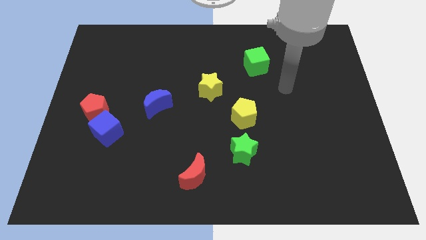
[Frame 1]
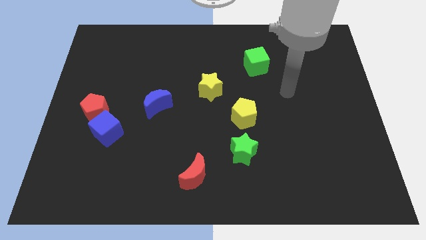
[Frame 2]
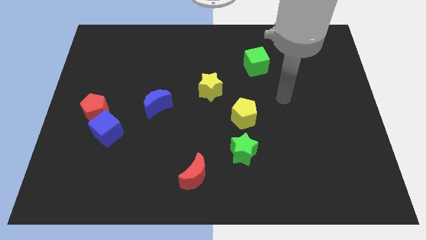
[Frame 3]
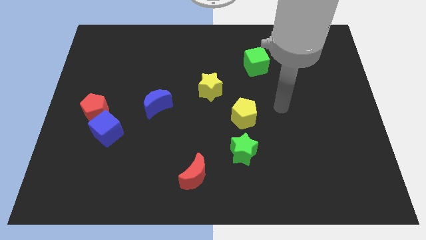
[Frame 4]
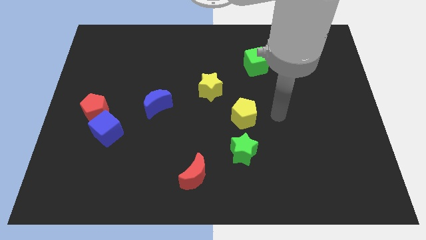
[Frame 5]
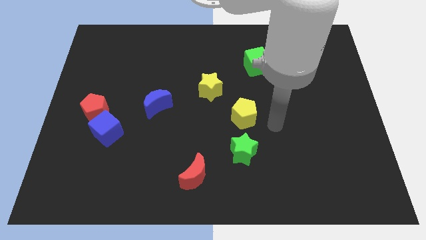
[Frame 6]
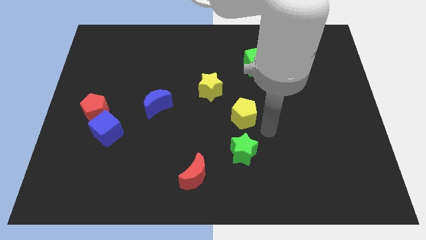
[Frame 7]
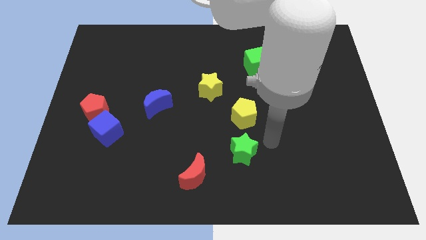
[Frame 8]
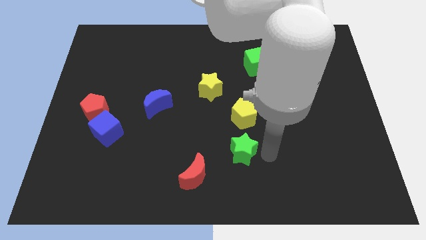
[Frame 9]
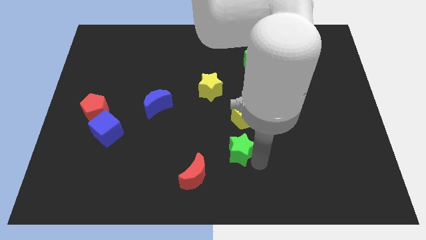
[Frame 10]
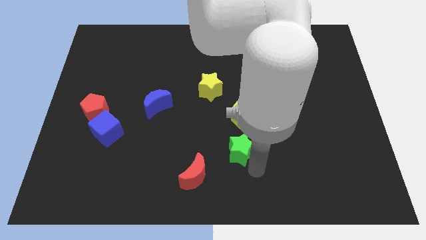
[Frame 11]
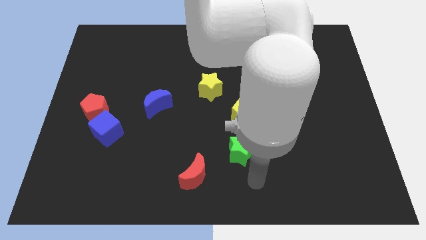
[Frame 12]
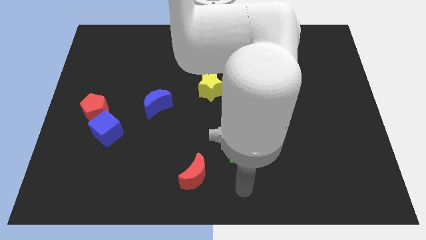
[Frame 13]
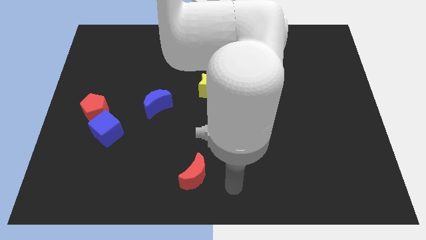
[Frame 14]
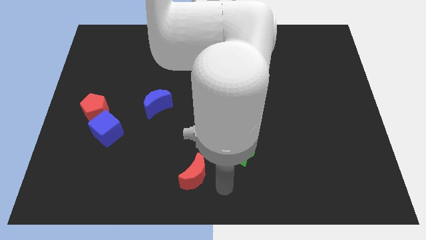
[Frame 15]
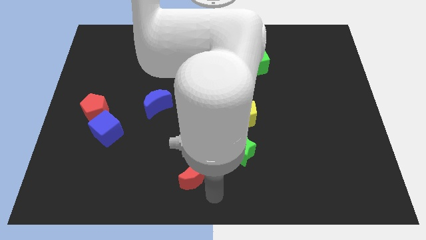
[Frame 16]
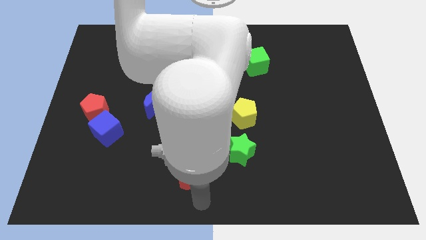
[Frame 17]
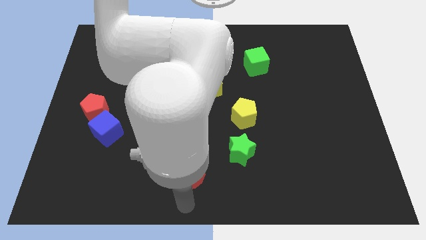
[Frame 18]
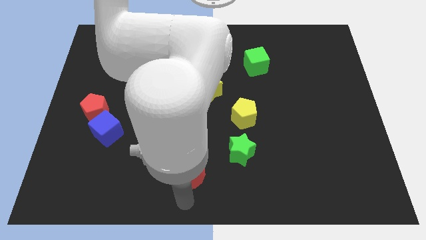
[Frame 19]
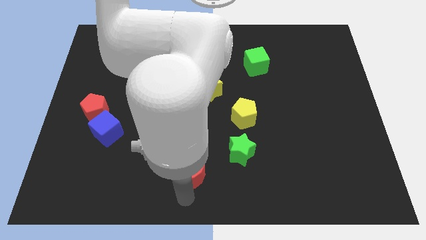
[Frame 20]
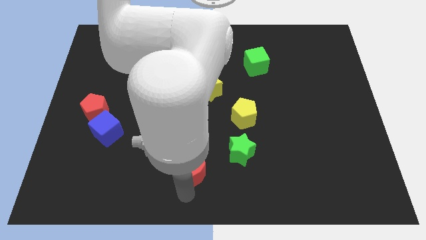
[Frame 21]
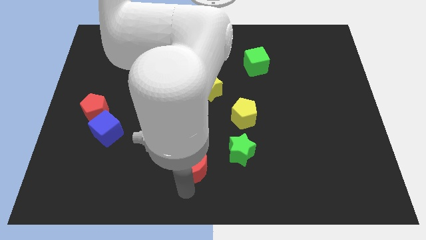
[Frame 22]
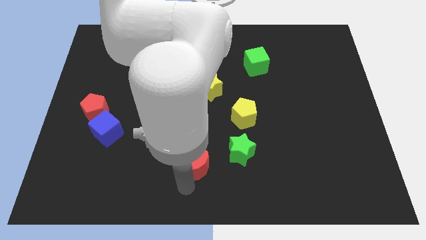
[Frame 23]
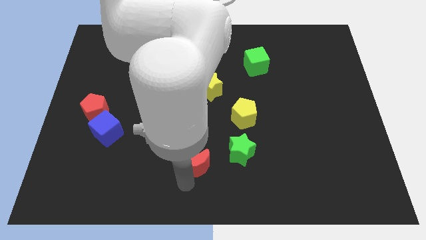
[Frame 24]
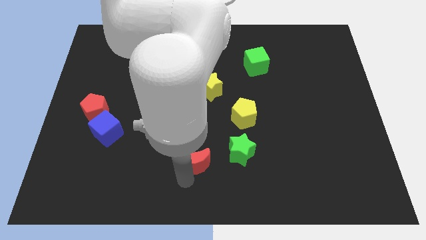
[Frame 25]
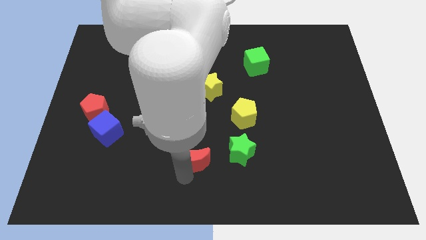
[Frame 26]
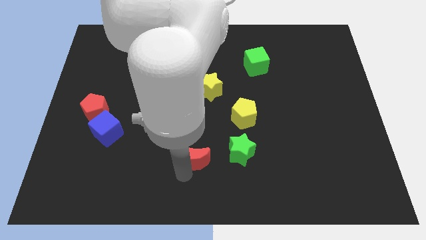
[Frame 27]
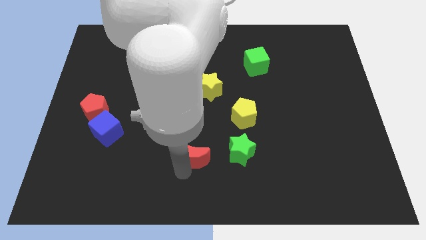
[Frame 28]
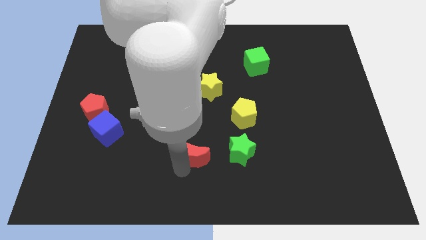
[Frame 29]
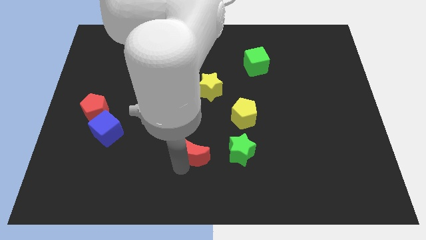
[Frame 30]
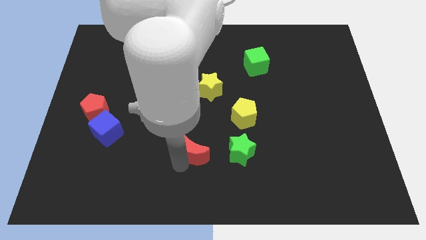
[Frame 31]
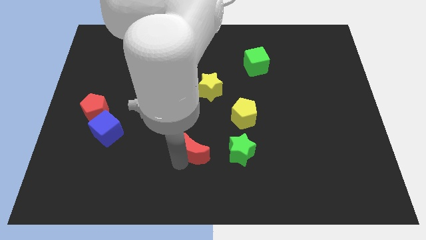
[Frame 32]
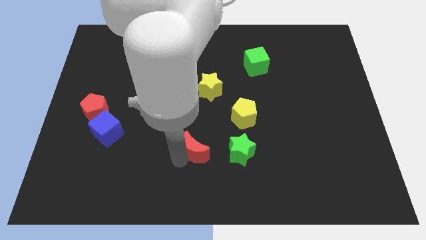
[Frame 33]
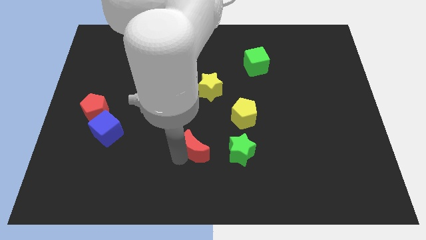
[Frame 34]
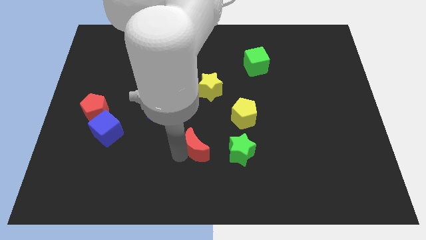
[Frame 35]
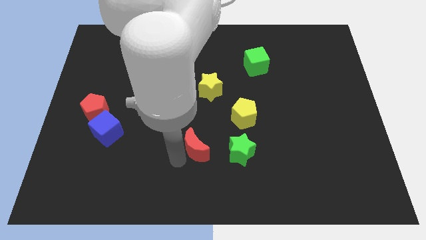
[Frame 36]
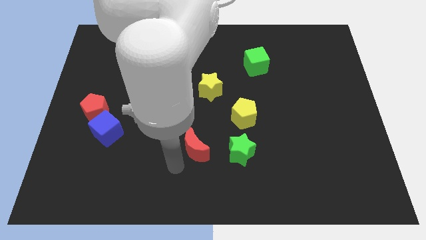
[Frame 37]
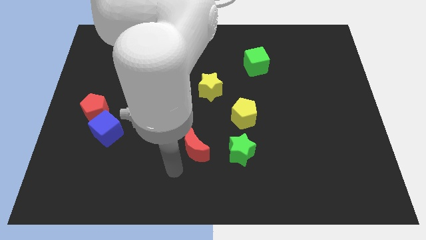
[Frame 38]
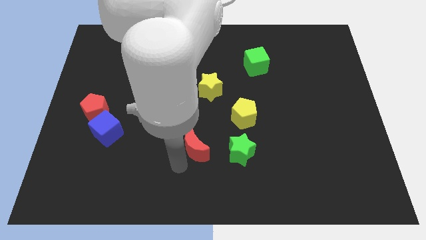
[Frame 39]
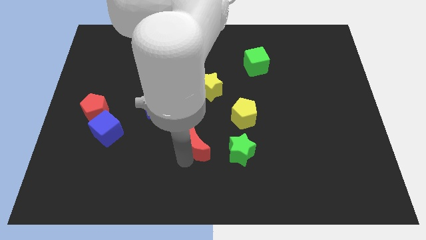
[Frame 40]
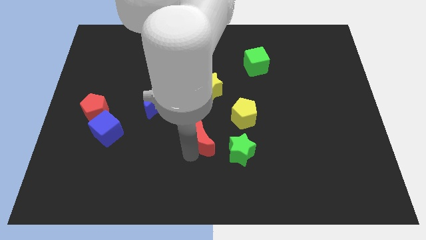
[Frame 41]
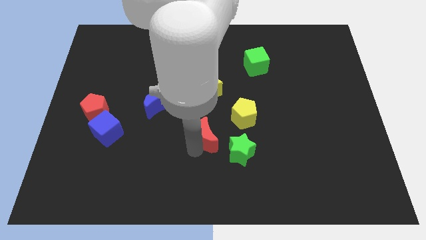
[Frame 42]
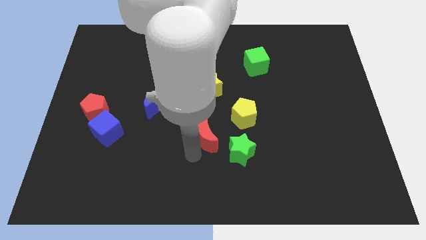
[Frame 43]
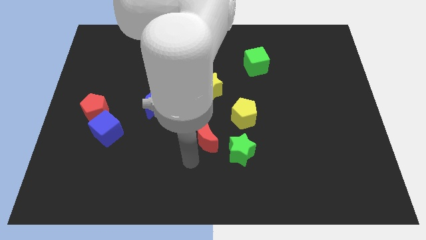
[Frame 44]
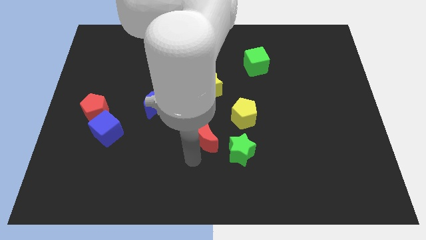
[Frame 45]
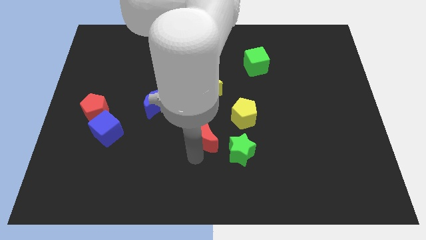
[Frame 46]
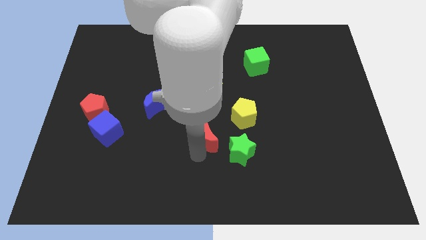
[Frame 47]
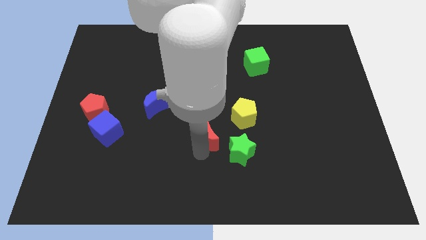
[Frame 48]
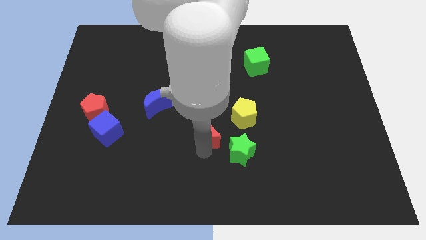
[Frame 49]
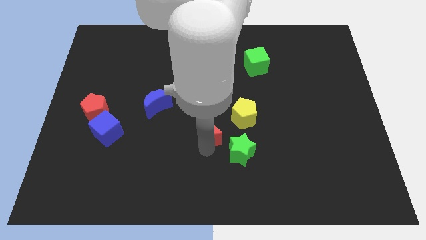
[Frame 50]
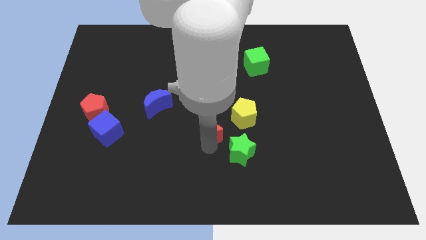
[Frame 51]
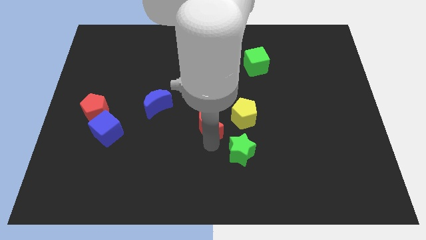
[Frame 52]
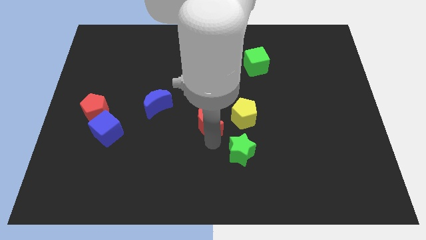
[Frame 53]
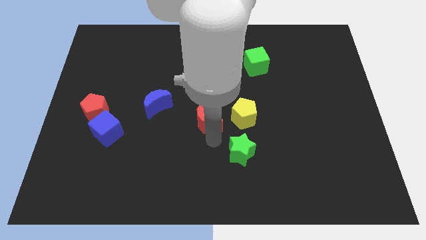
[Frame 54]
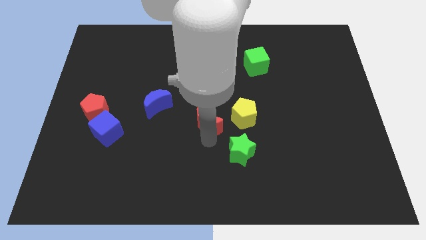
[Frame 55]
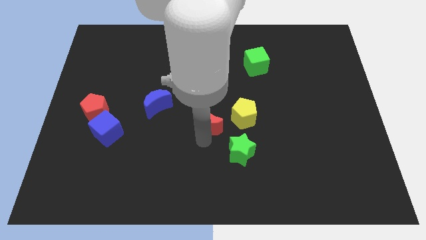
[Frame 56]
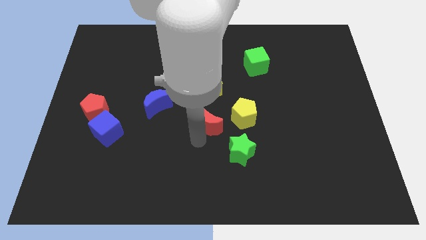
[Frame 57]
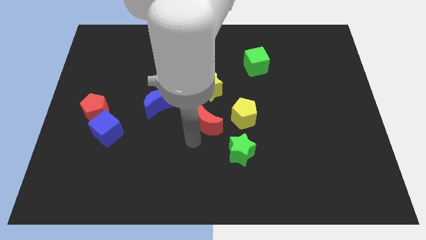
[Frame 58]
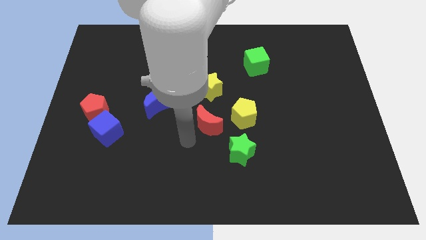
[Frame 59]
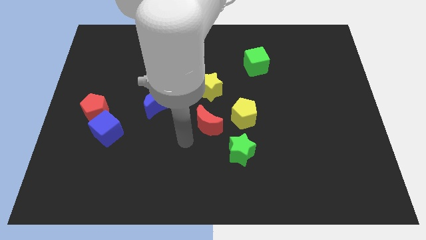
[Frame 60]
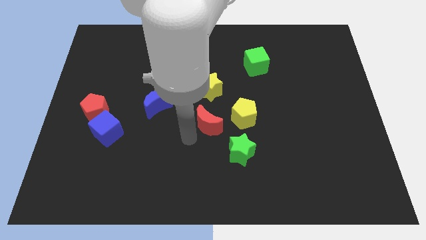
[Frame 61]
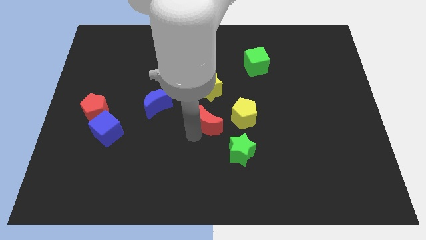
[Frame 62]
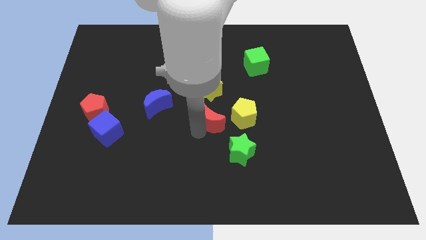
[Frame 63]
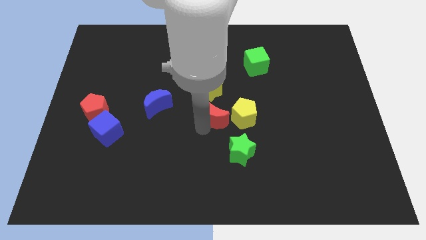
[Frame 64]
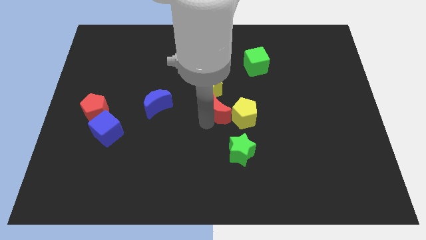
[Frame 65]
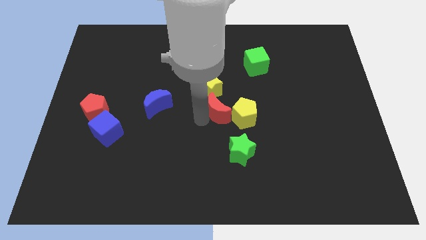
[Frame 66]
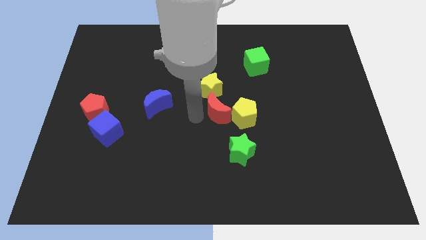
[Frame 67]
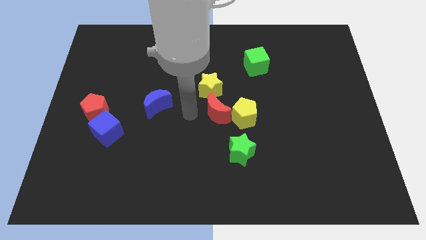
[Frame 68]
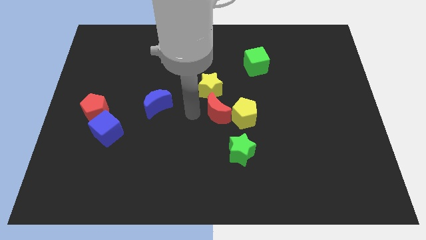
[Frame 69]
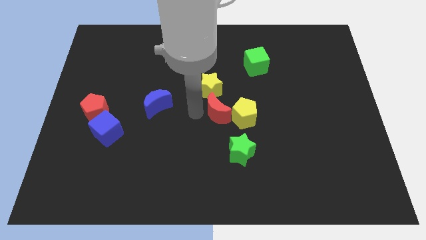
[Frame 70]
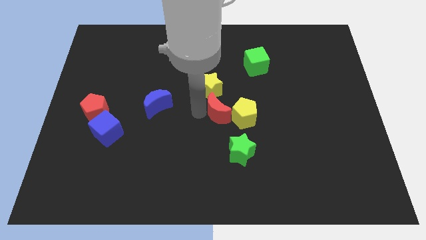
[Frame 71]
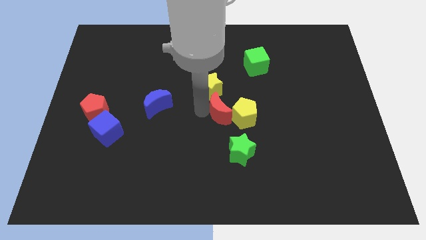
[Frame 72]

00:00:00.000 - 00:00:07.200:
slide the red moon to the top of the green star

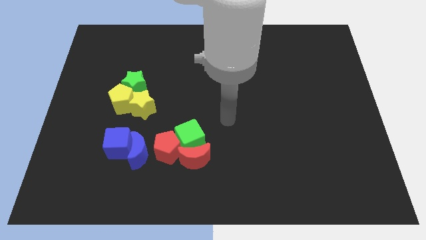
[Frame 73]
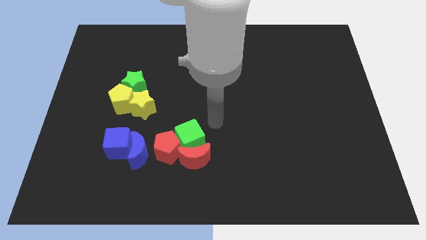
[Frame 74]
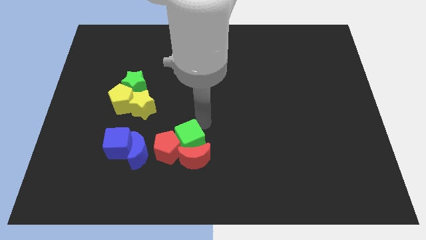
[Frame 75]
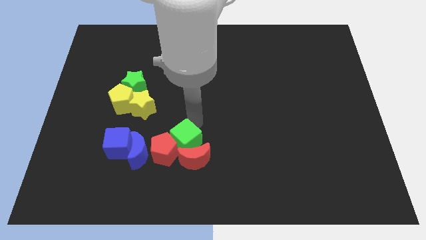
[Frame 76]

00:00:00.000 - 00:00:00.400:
push the blue moon diagonally down and to the left of the green cube
